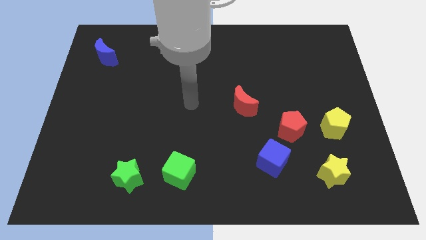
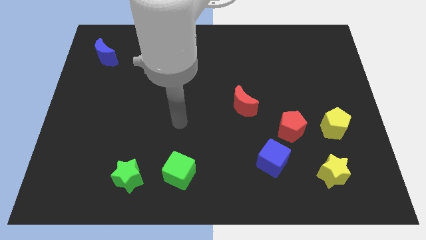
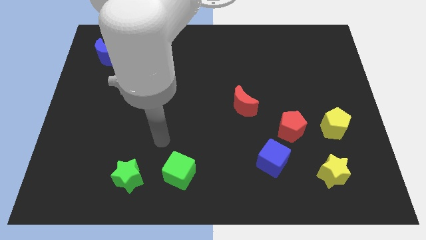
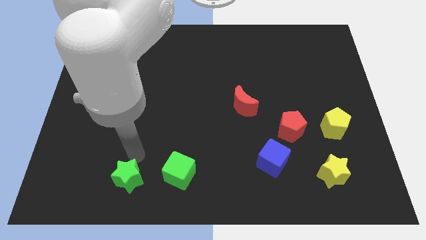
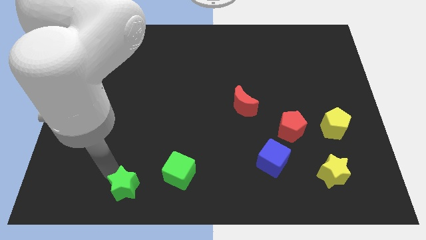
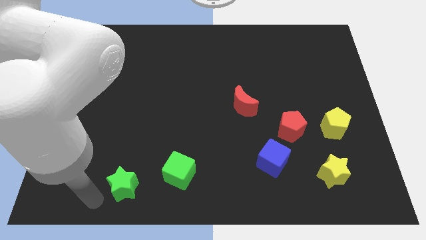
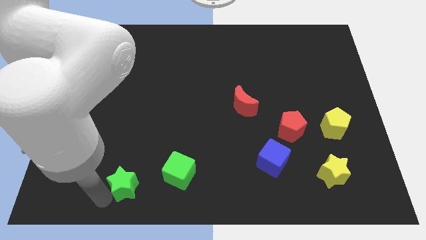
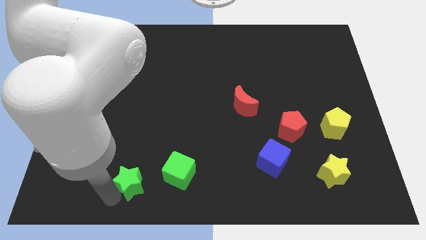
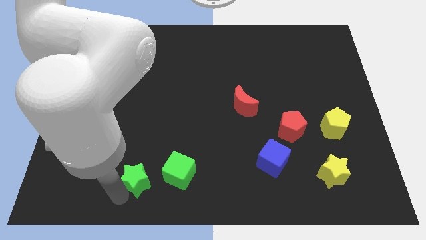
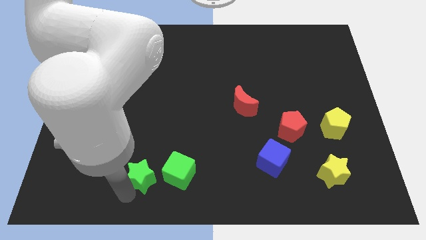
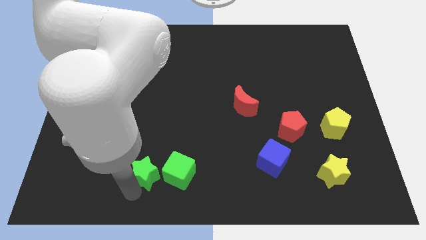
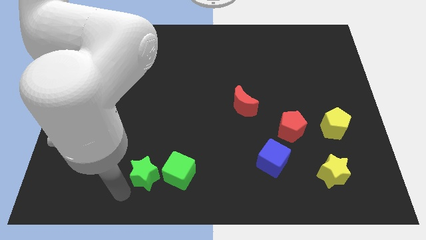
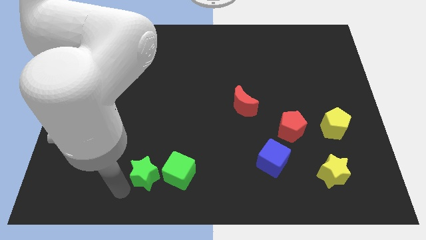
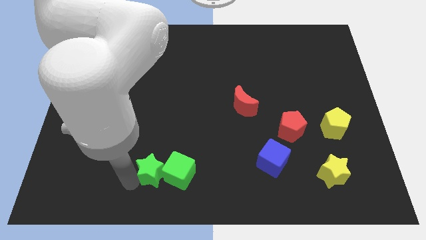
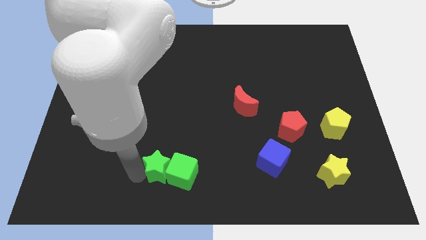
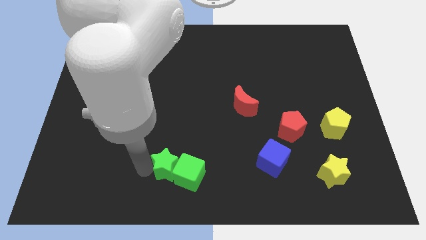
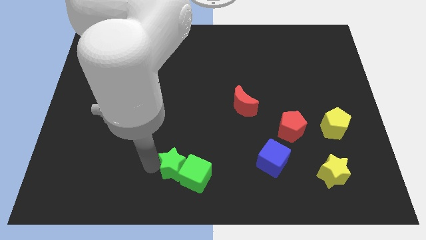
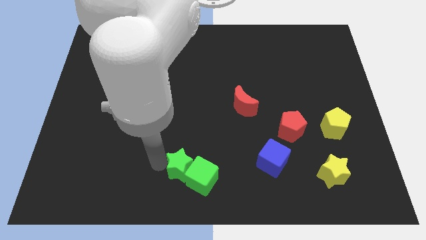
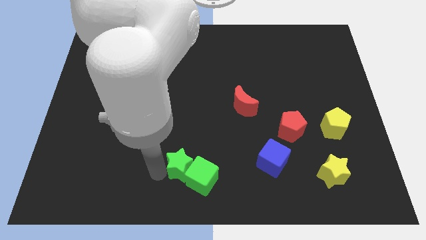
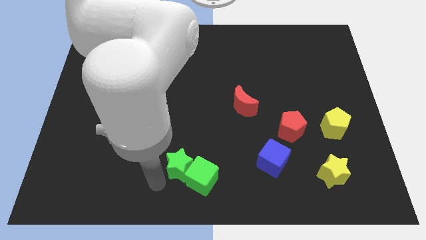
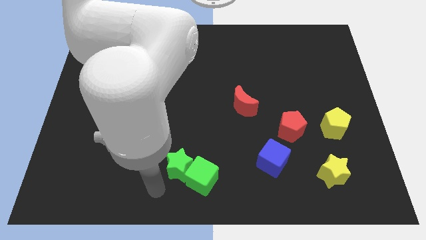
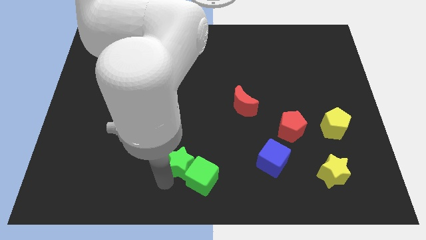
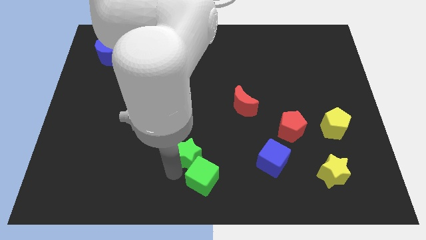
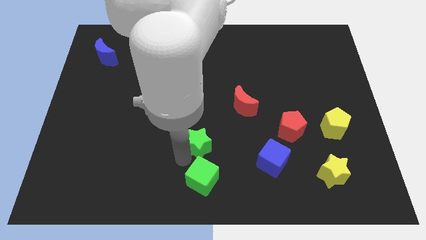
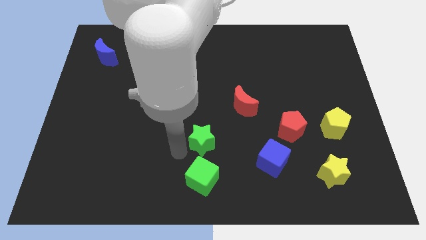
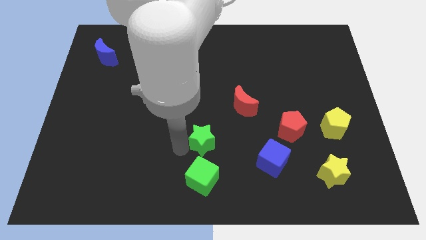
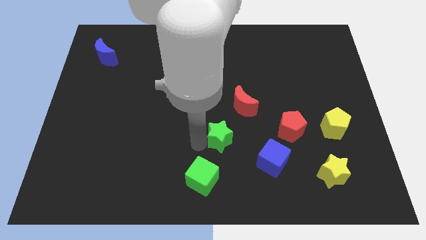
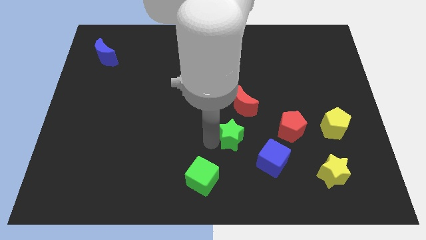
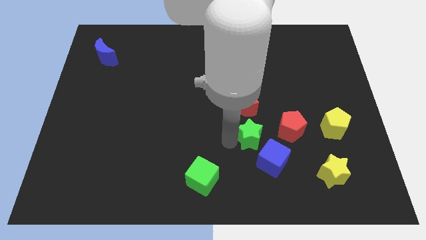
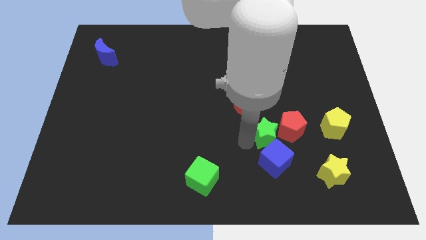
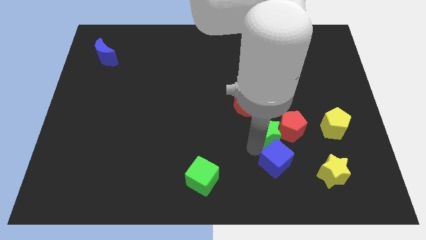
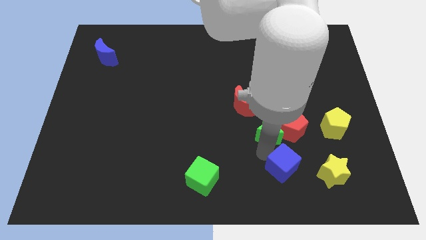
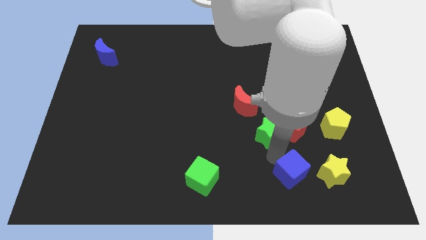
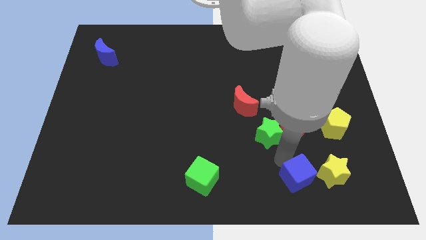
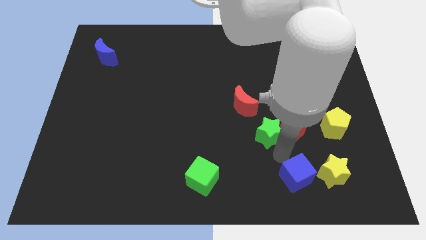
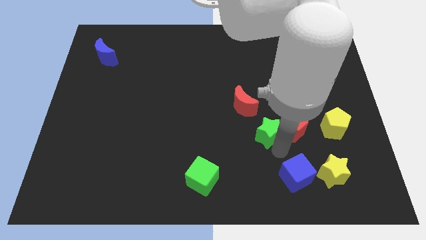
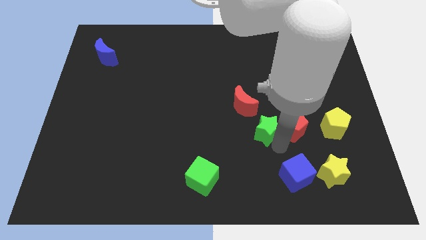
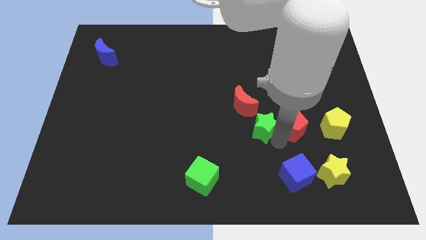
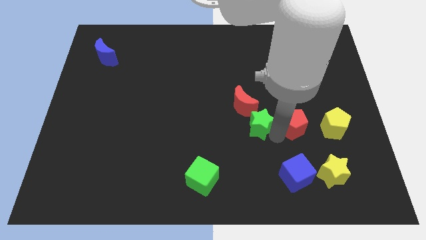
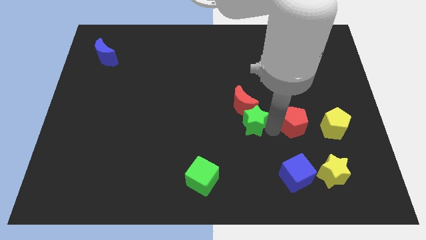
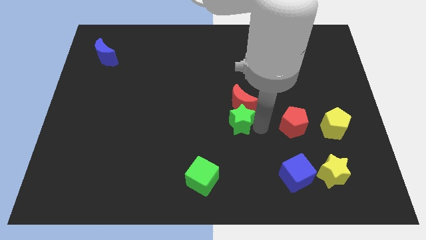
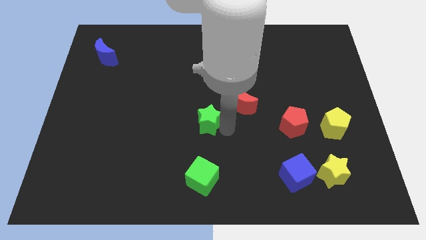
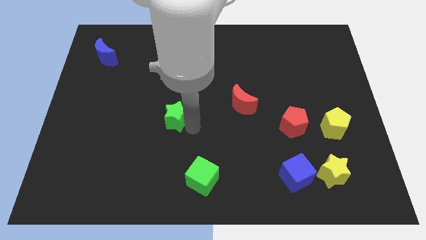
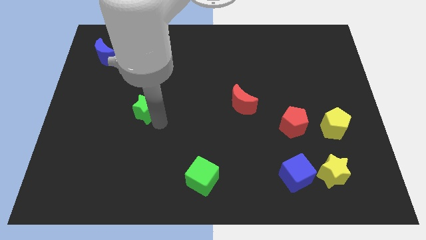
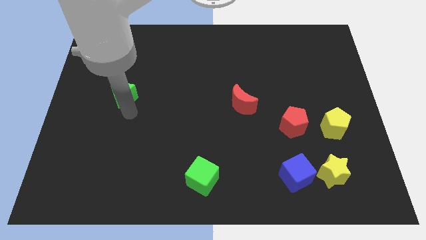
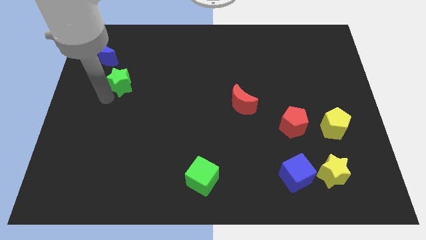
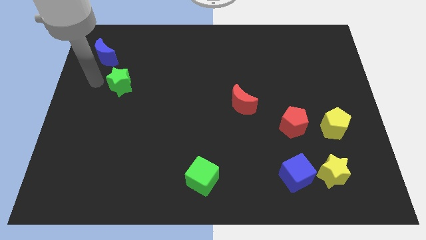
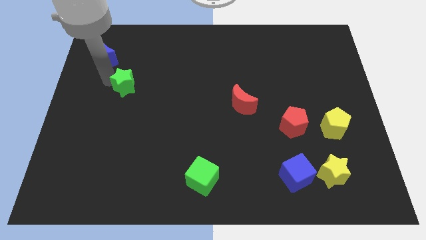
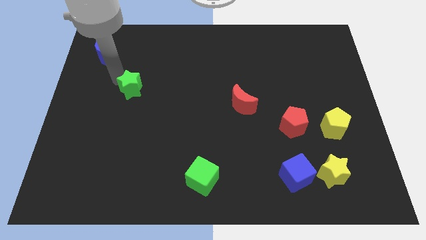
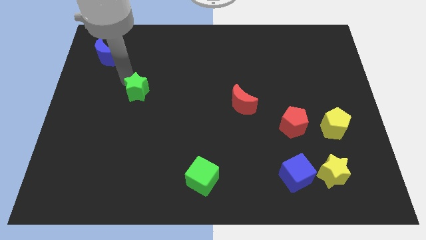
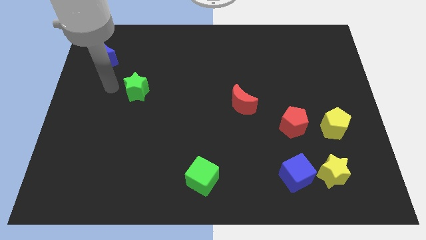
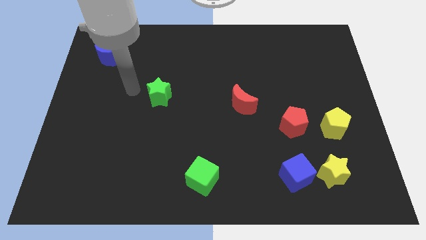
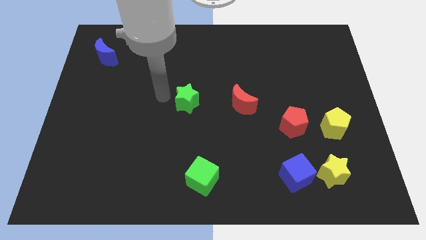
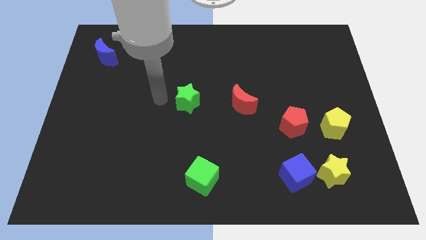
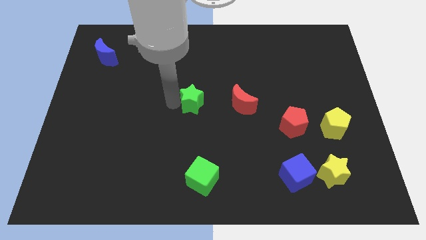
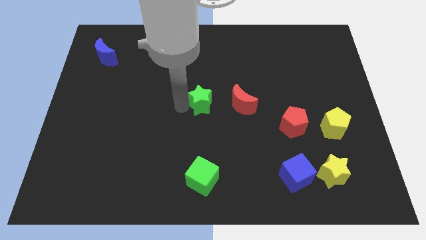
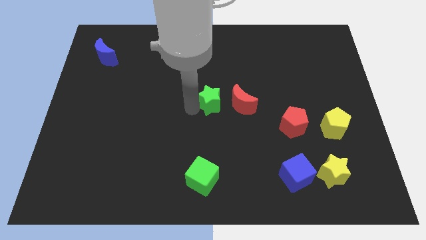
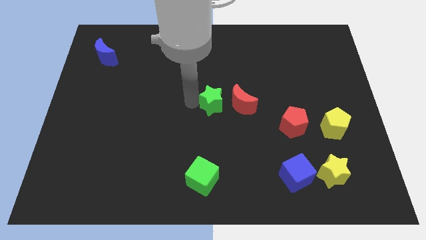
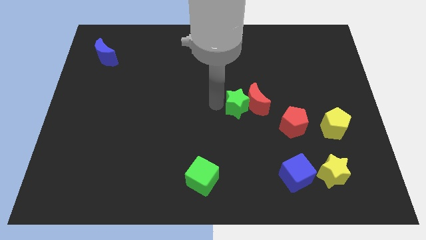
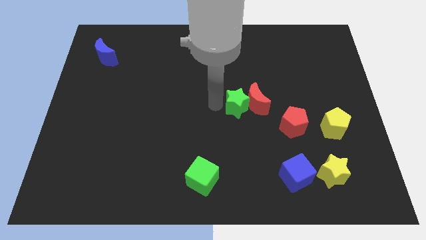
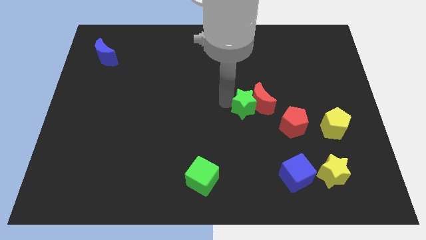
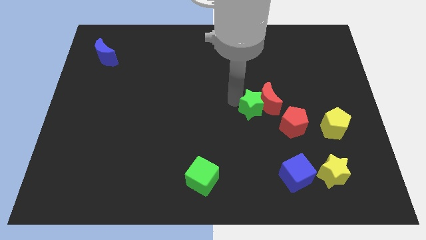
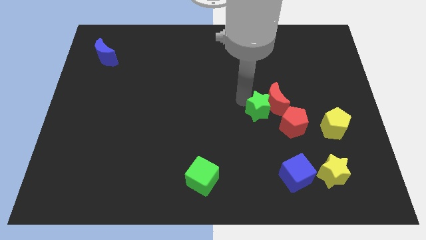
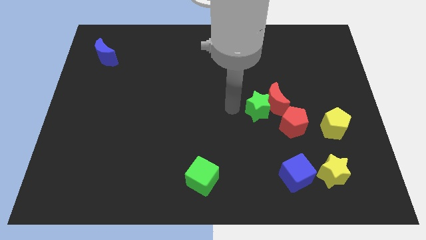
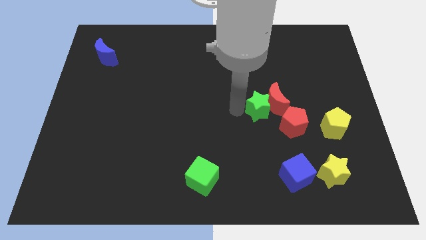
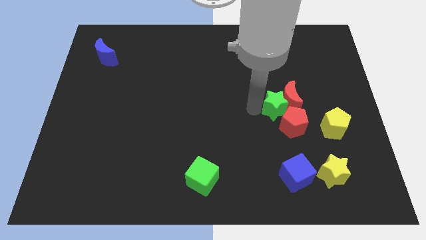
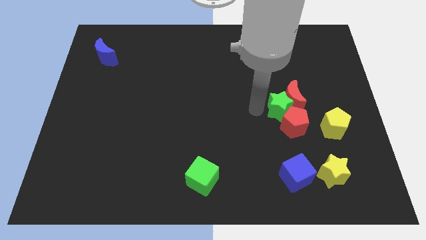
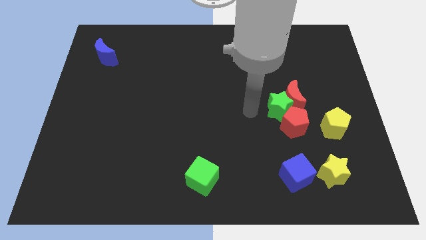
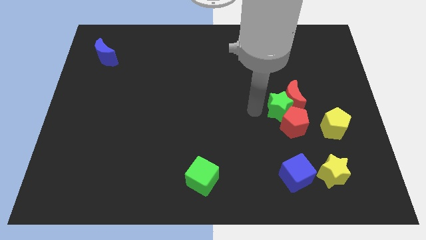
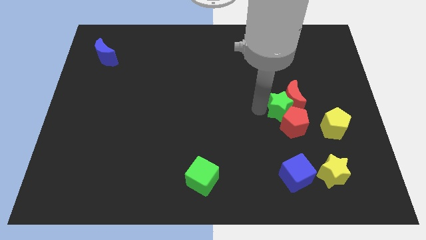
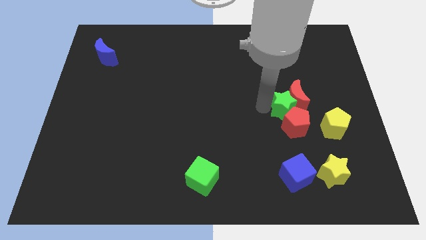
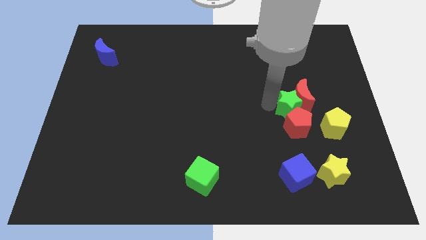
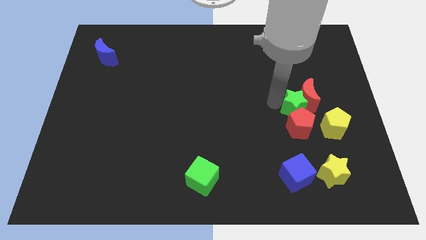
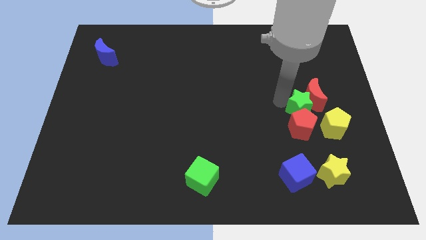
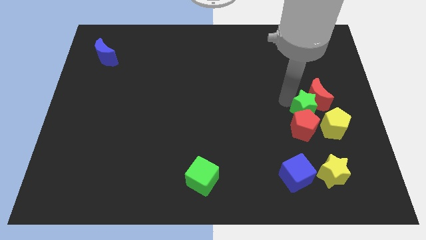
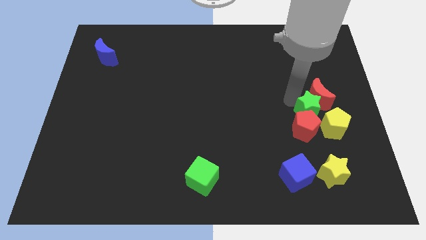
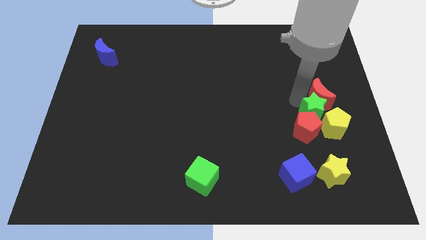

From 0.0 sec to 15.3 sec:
move the green star to the top of the yellow star
